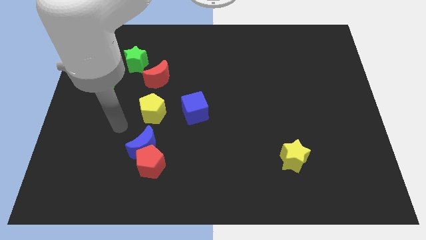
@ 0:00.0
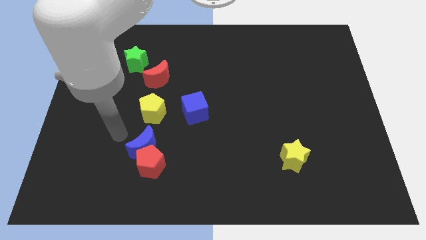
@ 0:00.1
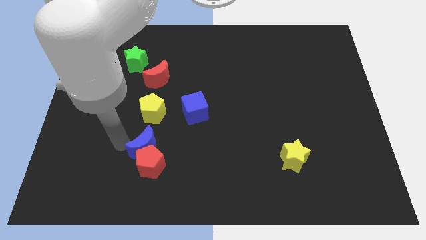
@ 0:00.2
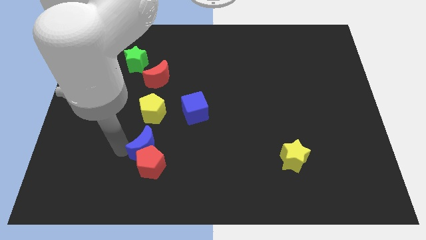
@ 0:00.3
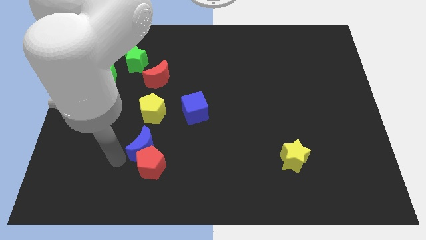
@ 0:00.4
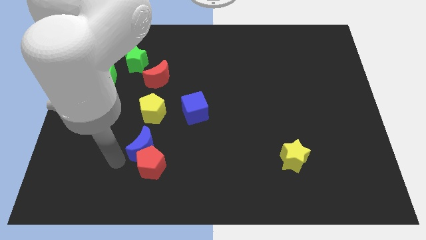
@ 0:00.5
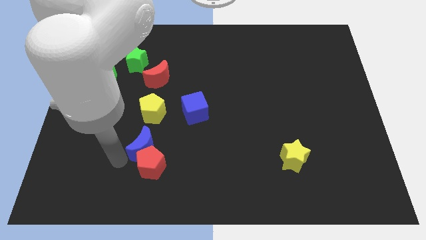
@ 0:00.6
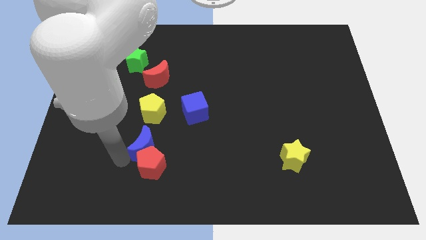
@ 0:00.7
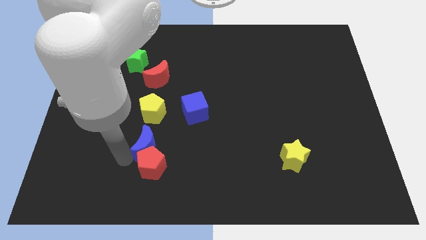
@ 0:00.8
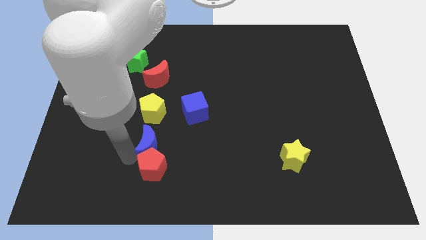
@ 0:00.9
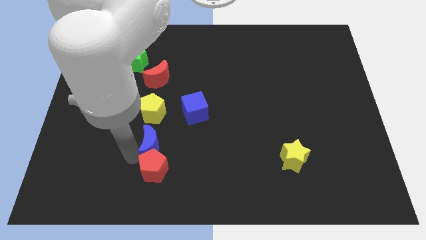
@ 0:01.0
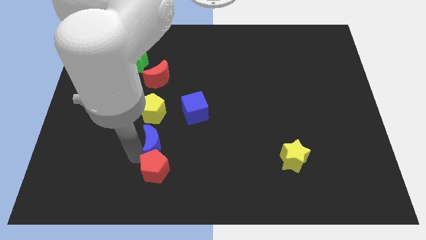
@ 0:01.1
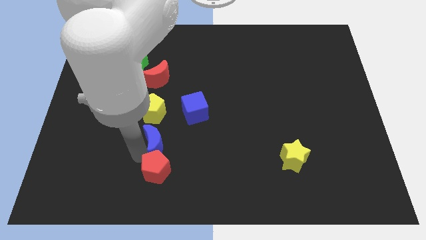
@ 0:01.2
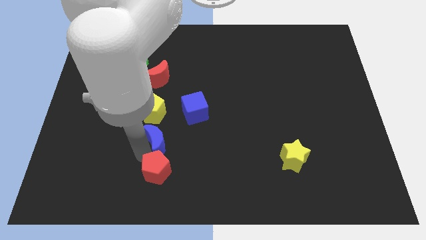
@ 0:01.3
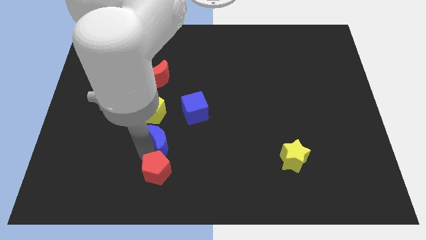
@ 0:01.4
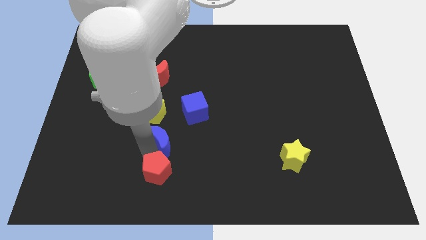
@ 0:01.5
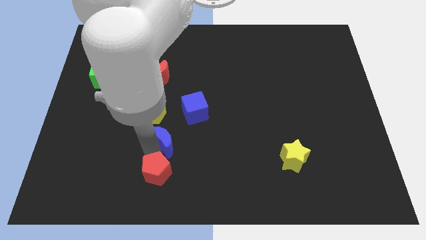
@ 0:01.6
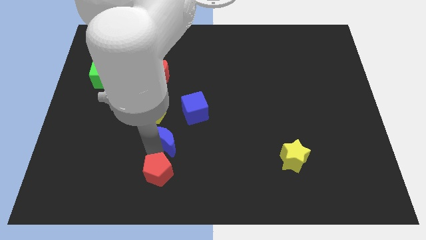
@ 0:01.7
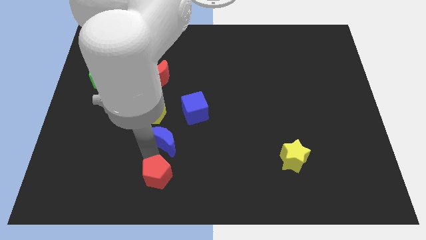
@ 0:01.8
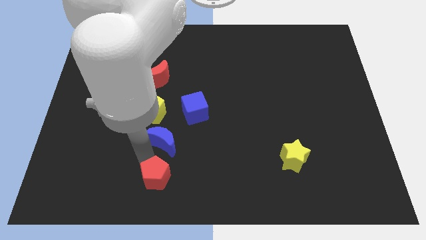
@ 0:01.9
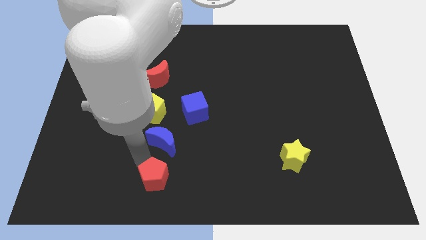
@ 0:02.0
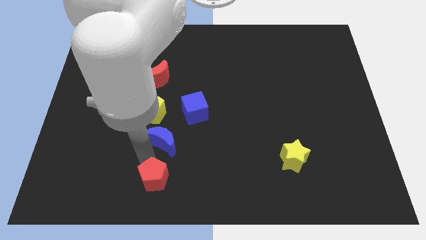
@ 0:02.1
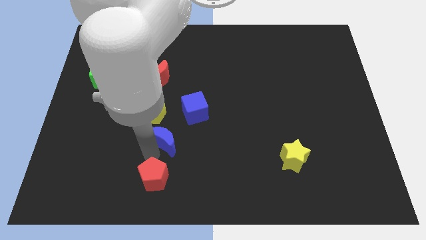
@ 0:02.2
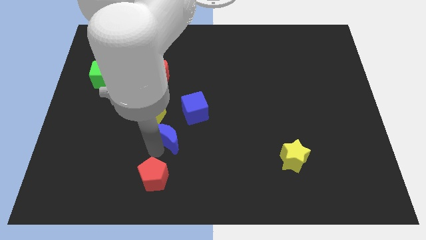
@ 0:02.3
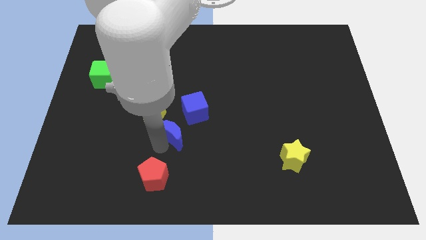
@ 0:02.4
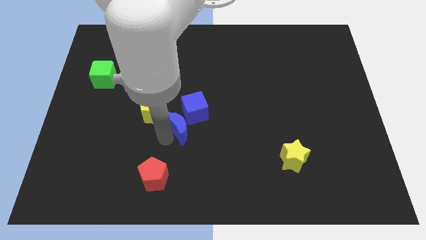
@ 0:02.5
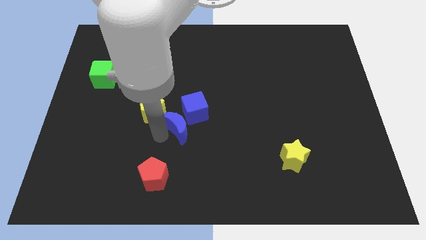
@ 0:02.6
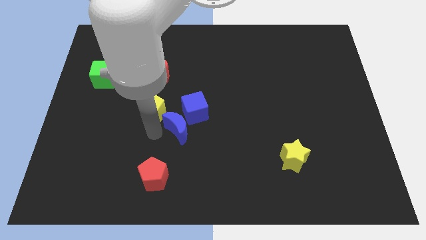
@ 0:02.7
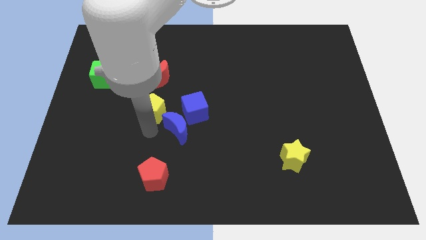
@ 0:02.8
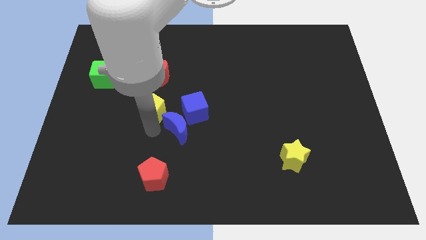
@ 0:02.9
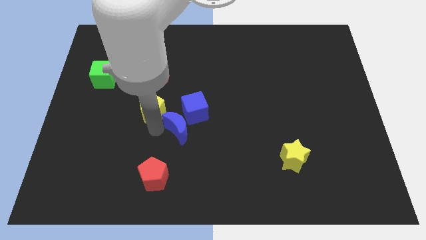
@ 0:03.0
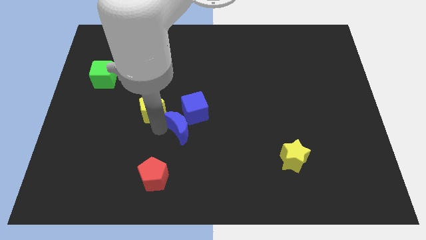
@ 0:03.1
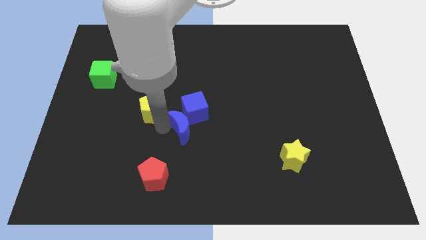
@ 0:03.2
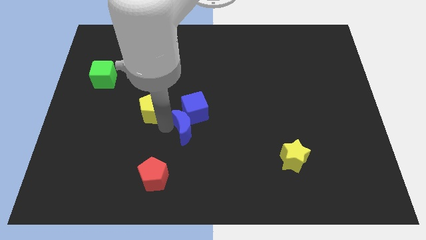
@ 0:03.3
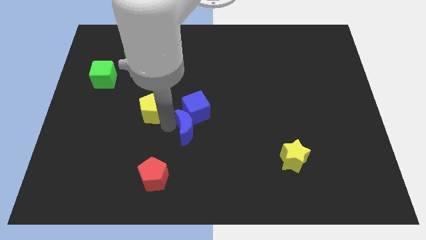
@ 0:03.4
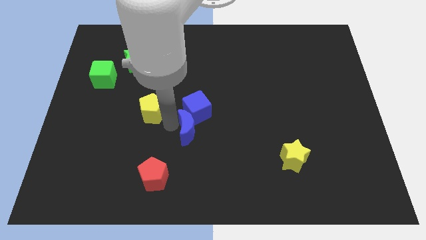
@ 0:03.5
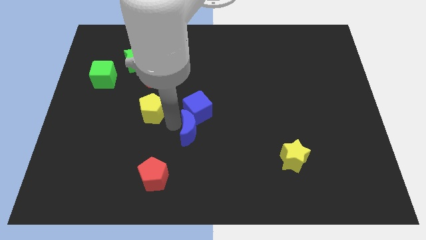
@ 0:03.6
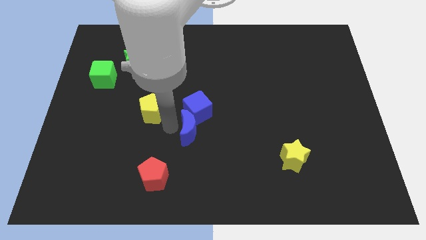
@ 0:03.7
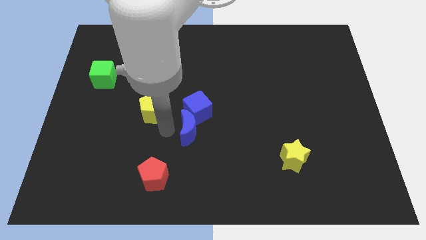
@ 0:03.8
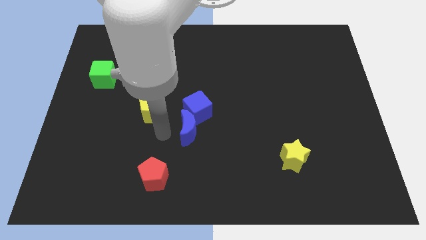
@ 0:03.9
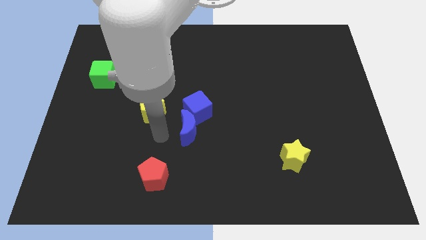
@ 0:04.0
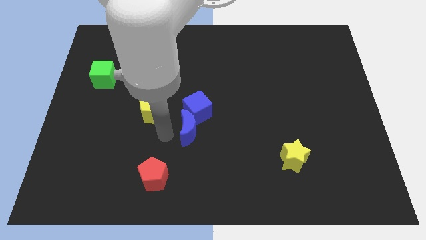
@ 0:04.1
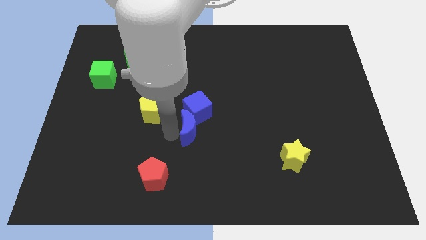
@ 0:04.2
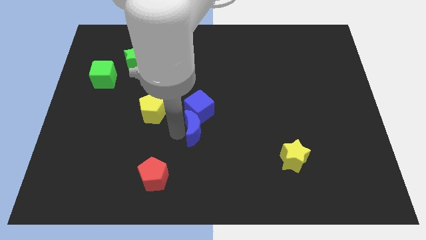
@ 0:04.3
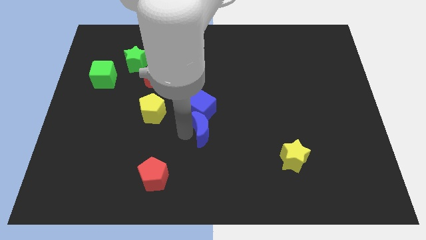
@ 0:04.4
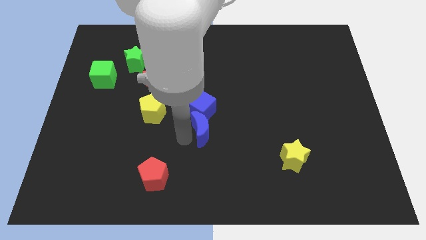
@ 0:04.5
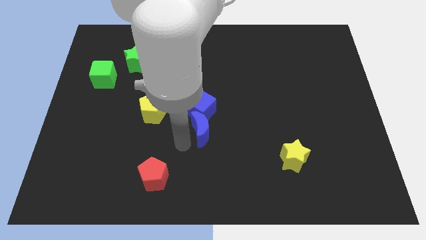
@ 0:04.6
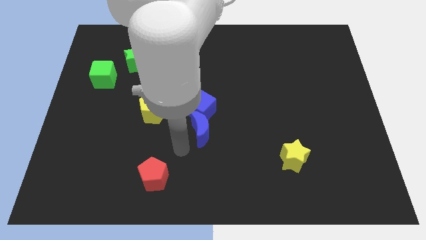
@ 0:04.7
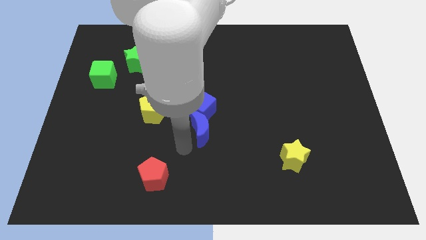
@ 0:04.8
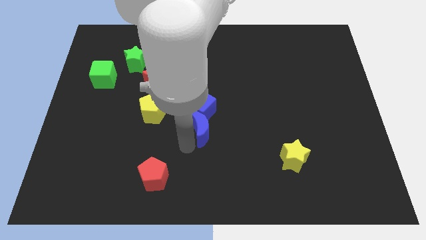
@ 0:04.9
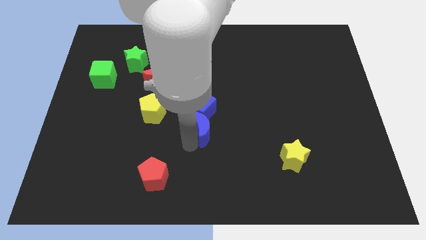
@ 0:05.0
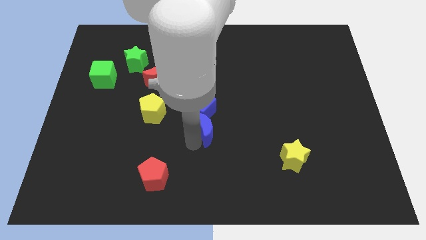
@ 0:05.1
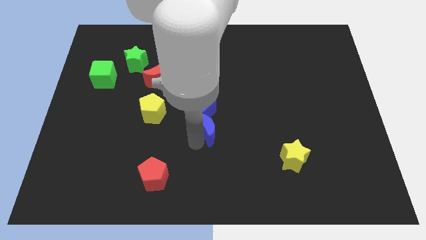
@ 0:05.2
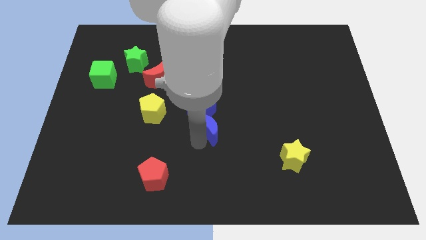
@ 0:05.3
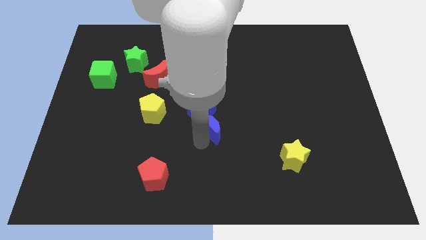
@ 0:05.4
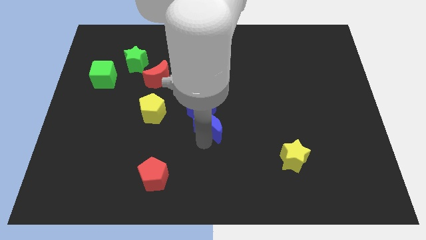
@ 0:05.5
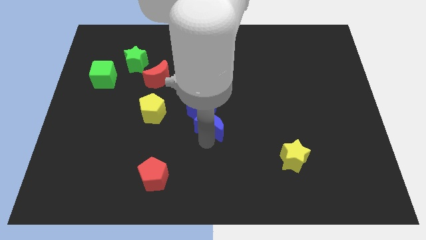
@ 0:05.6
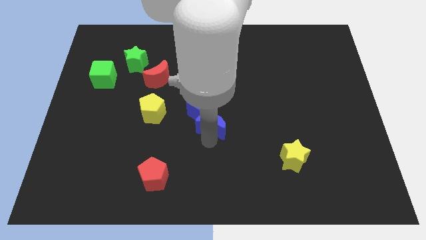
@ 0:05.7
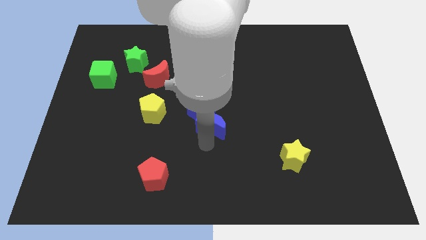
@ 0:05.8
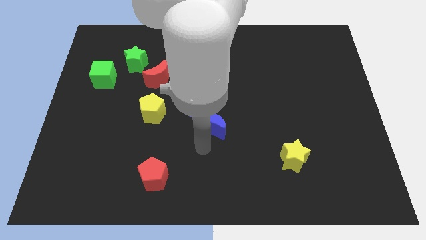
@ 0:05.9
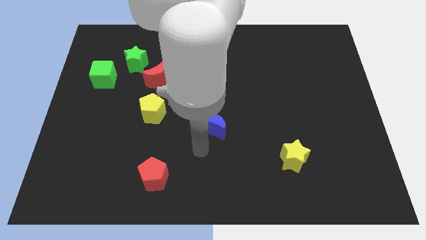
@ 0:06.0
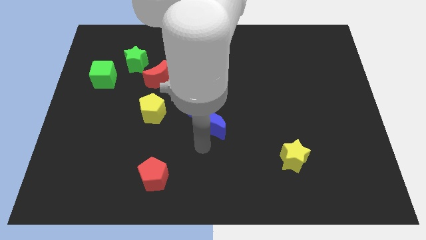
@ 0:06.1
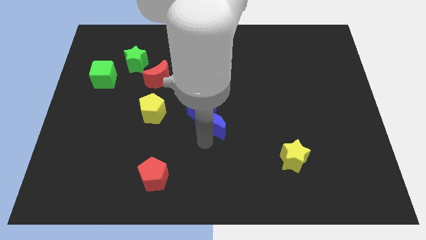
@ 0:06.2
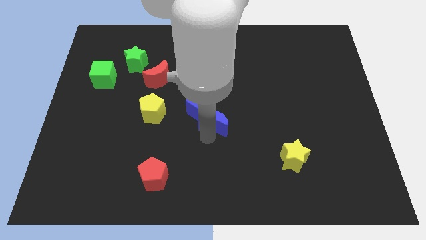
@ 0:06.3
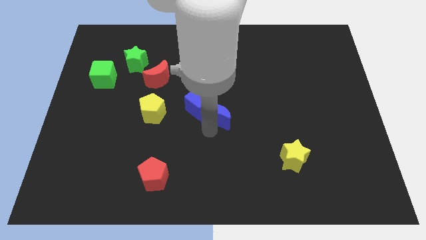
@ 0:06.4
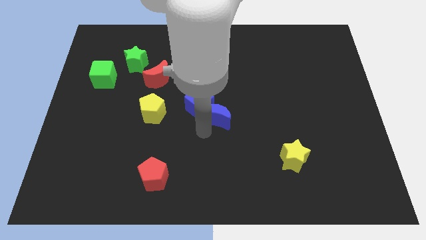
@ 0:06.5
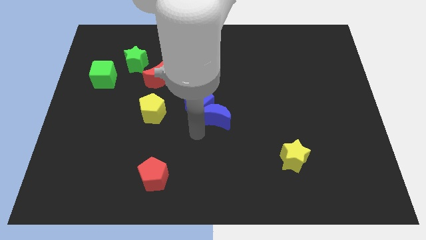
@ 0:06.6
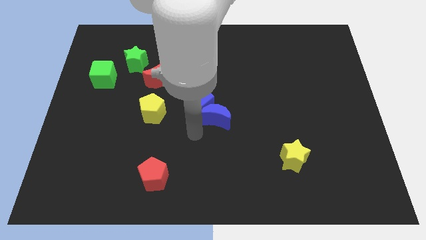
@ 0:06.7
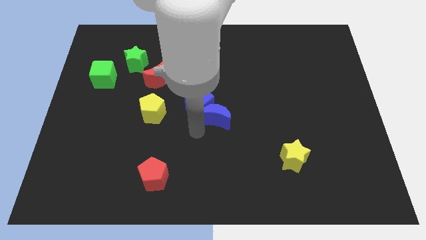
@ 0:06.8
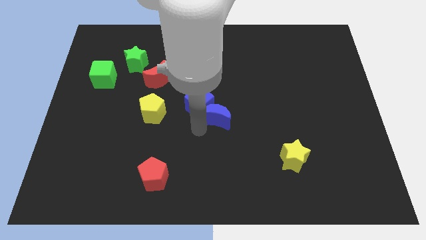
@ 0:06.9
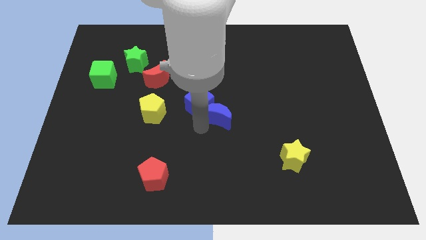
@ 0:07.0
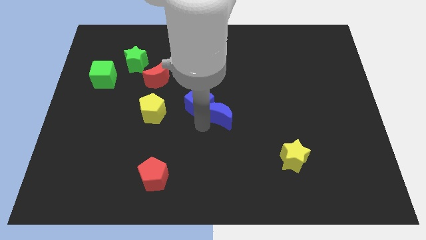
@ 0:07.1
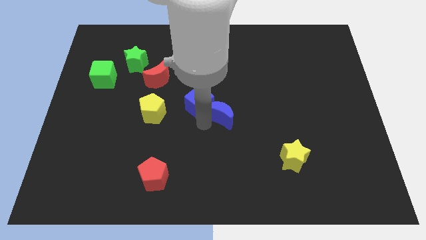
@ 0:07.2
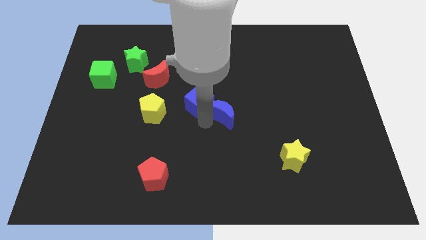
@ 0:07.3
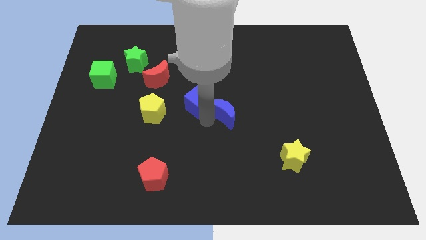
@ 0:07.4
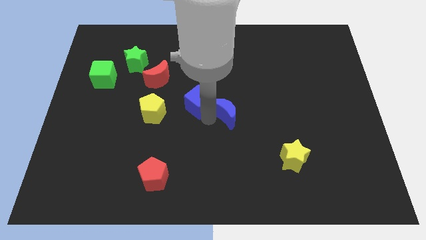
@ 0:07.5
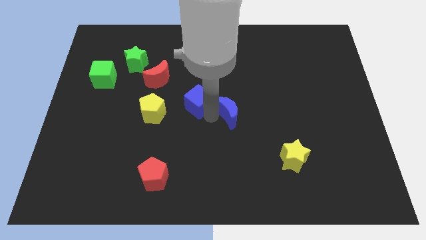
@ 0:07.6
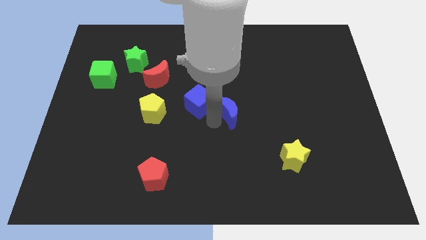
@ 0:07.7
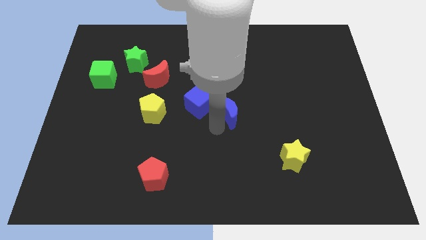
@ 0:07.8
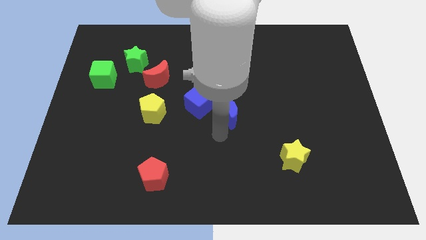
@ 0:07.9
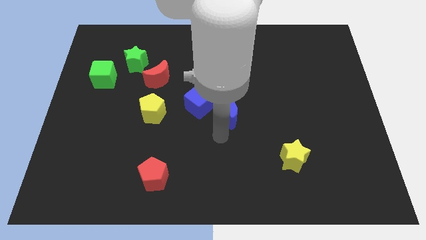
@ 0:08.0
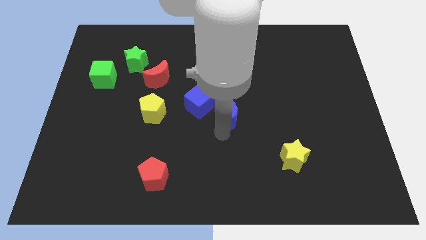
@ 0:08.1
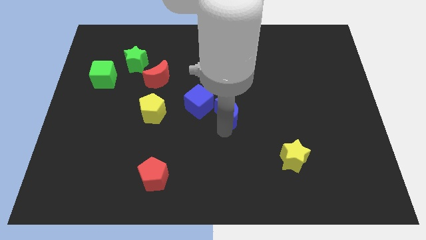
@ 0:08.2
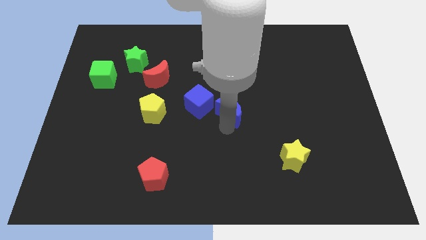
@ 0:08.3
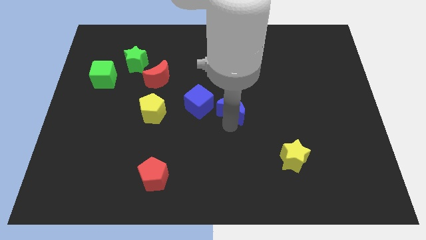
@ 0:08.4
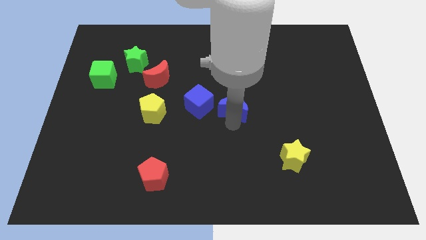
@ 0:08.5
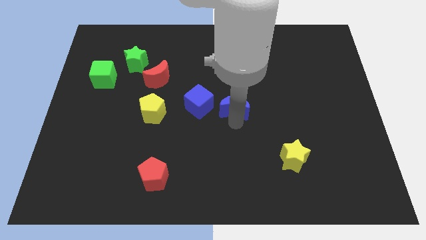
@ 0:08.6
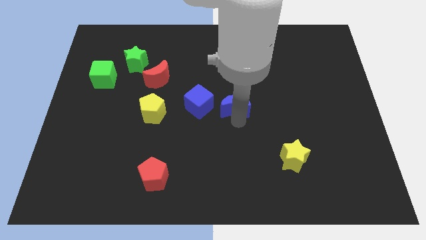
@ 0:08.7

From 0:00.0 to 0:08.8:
move the blue moon diagonally up and to the right
